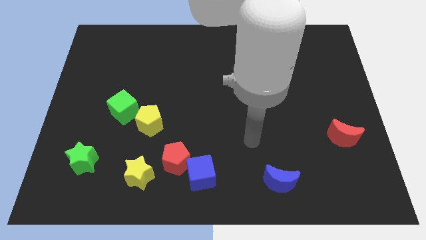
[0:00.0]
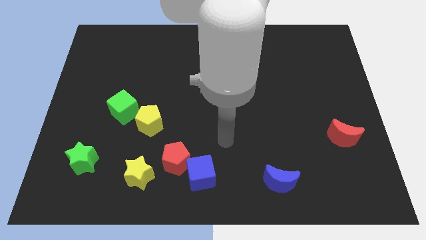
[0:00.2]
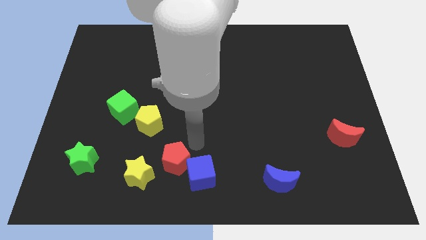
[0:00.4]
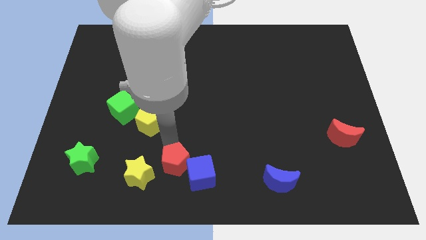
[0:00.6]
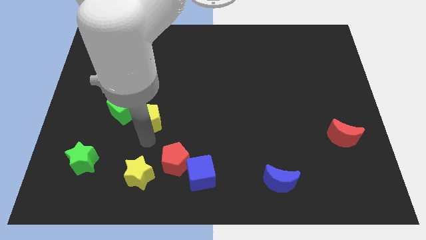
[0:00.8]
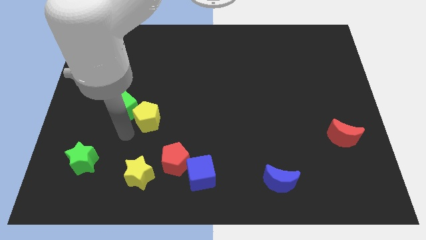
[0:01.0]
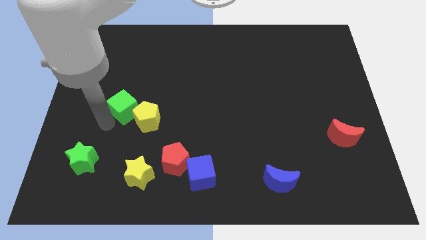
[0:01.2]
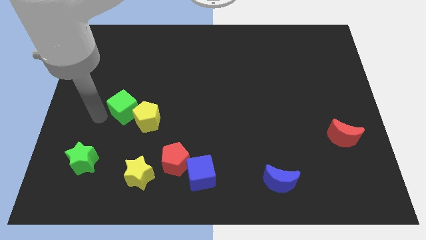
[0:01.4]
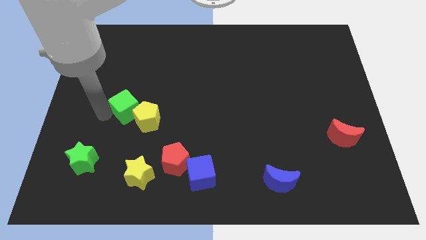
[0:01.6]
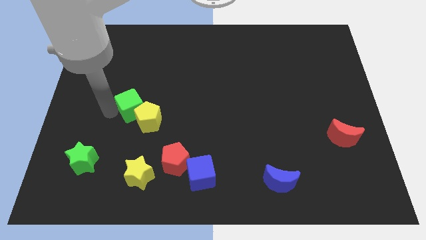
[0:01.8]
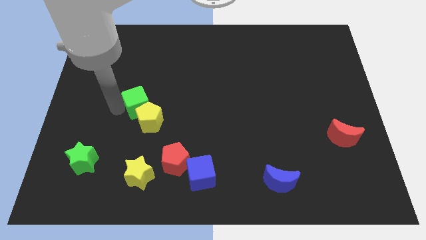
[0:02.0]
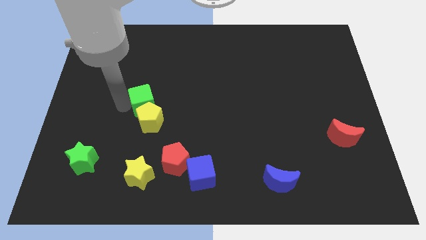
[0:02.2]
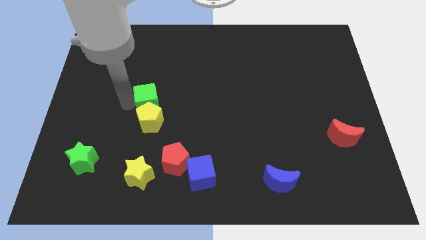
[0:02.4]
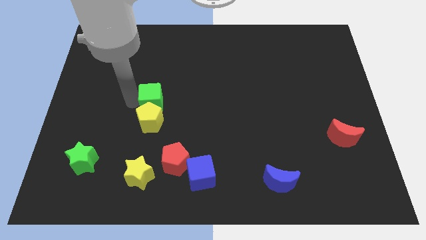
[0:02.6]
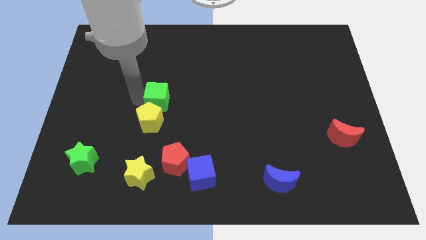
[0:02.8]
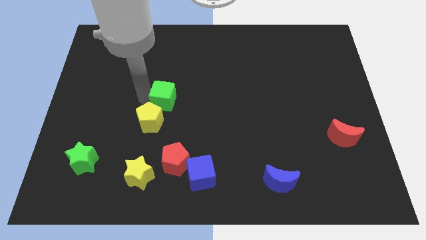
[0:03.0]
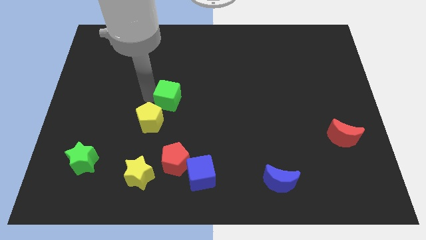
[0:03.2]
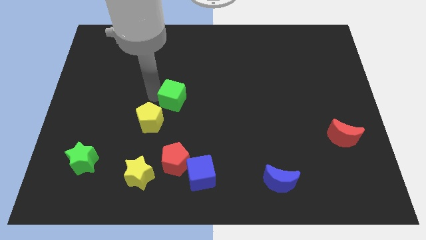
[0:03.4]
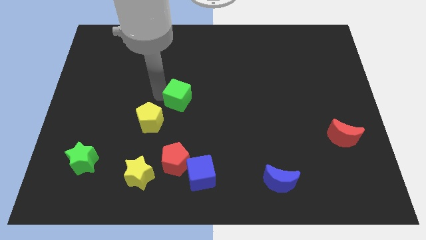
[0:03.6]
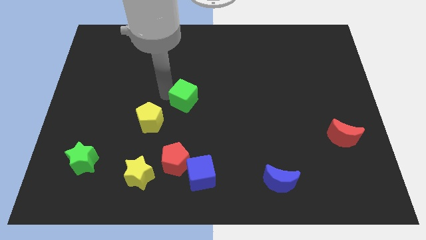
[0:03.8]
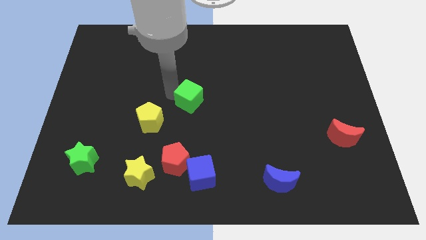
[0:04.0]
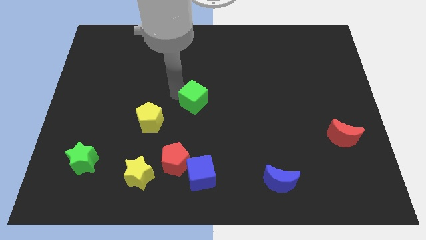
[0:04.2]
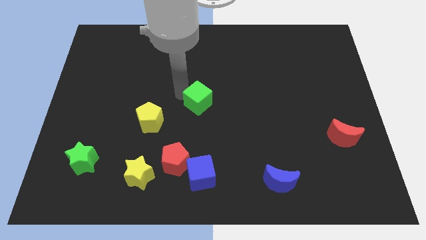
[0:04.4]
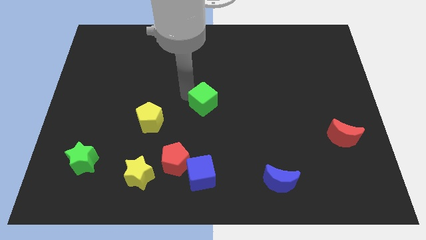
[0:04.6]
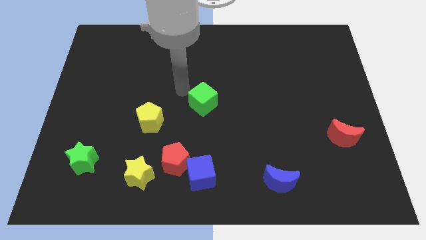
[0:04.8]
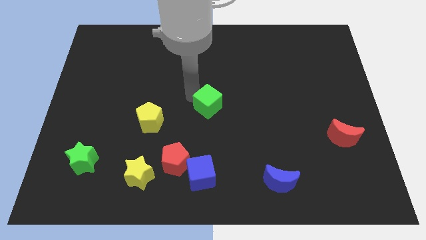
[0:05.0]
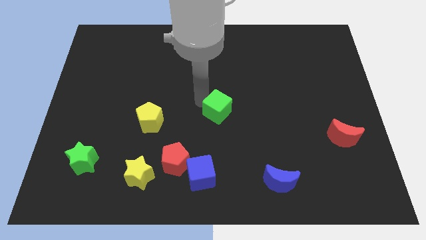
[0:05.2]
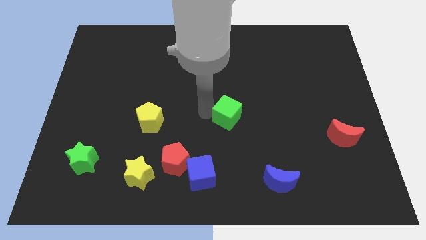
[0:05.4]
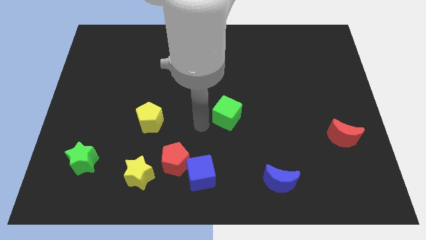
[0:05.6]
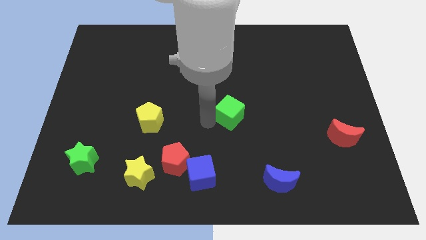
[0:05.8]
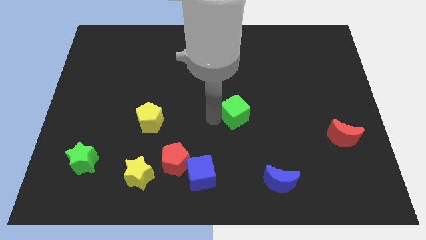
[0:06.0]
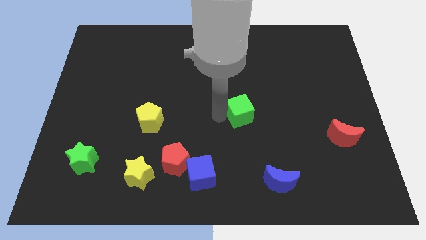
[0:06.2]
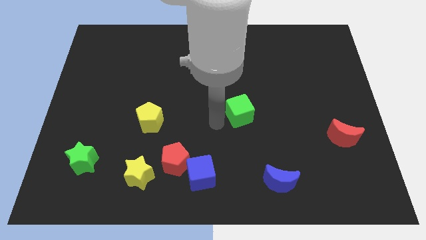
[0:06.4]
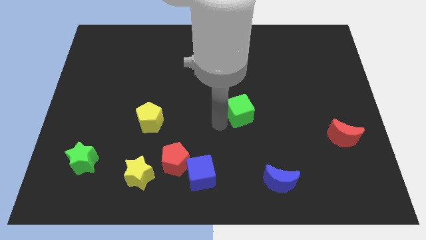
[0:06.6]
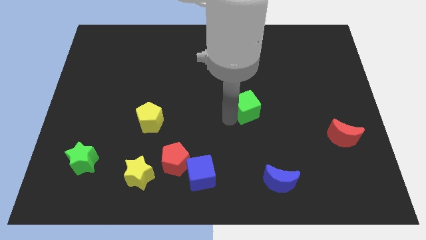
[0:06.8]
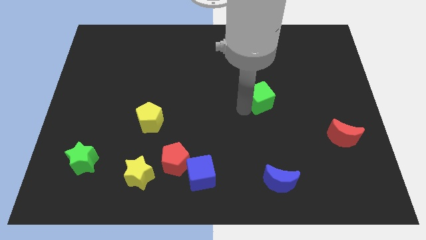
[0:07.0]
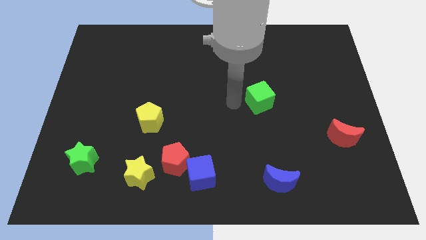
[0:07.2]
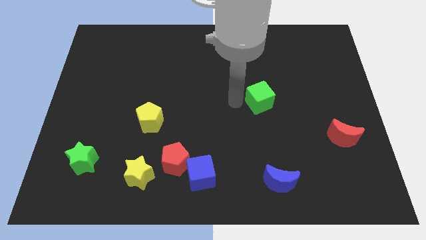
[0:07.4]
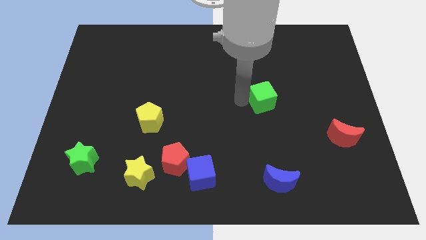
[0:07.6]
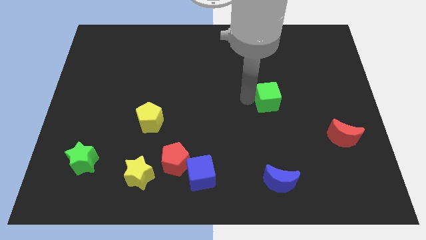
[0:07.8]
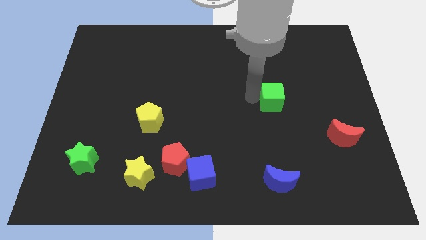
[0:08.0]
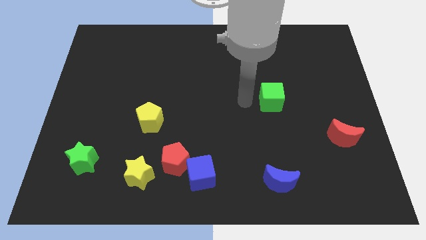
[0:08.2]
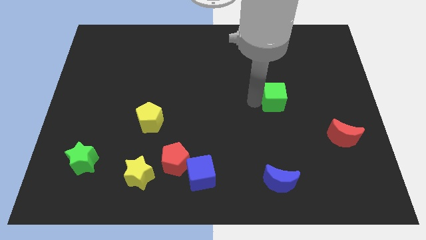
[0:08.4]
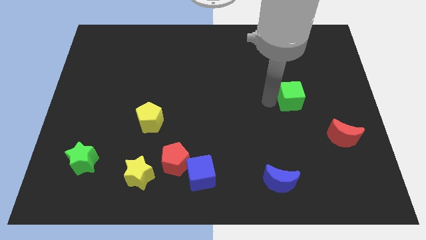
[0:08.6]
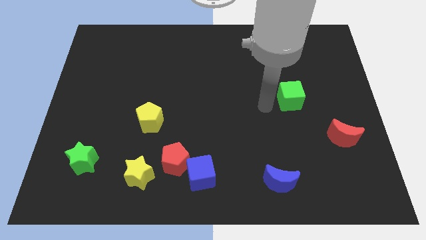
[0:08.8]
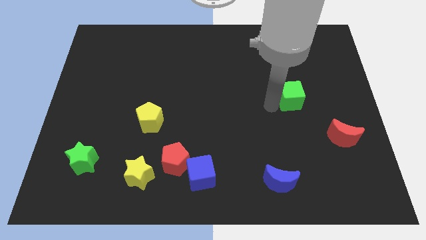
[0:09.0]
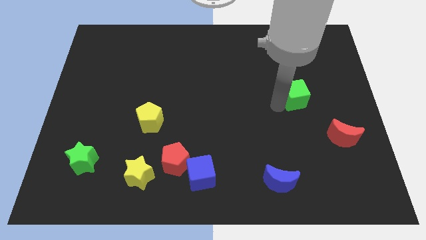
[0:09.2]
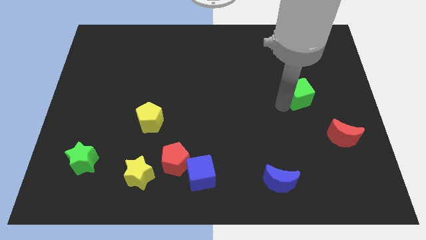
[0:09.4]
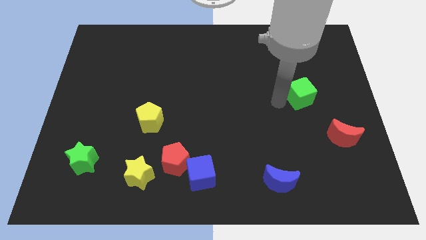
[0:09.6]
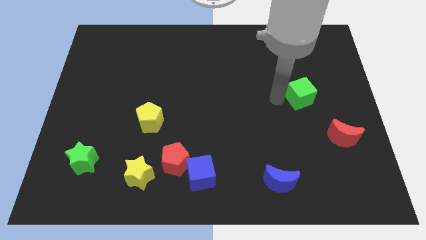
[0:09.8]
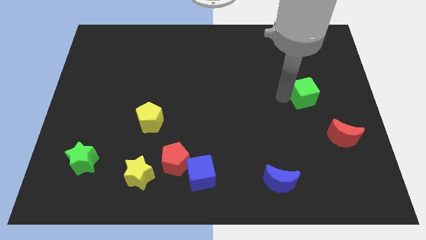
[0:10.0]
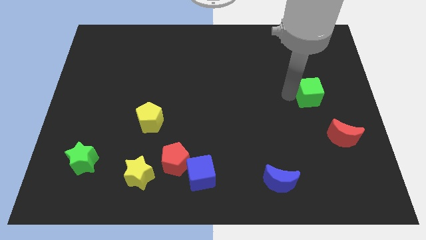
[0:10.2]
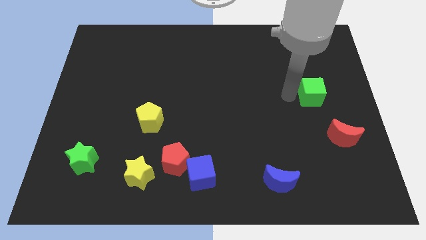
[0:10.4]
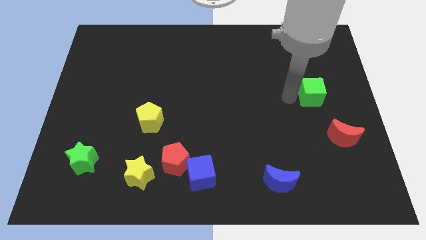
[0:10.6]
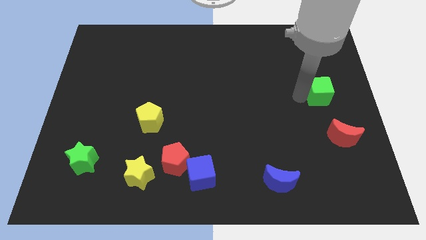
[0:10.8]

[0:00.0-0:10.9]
put the green cube to the center right

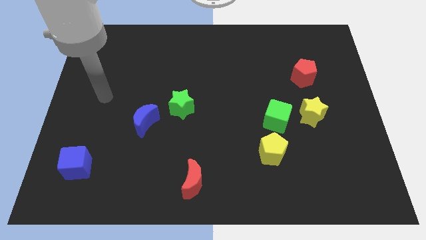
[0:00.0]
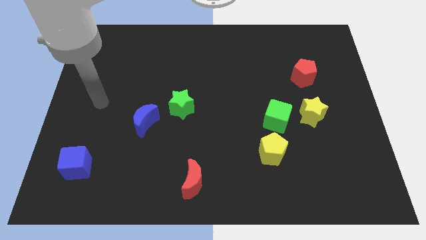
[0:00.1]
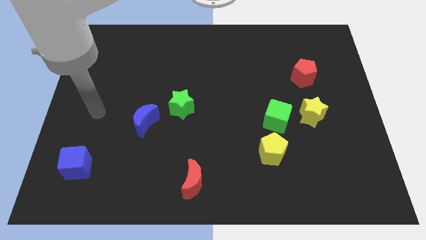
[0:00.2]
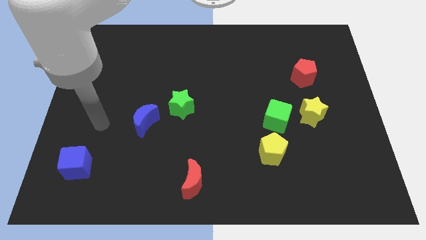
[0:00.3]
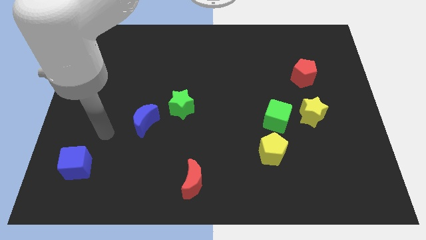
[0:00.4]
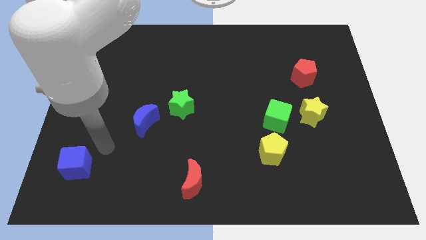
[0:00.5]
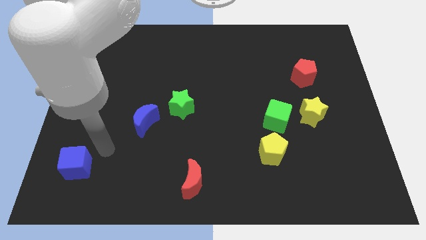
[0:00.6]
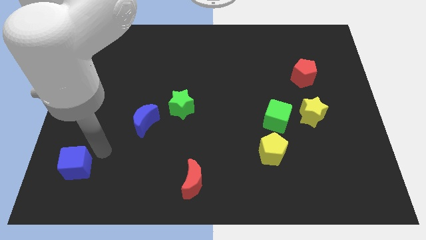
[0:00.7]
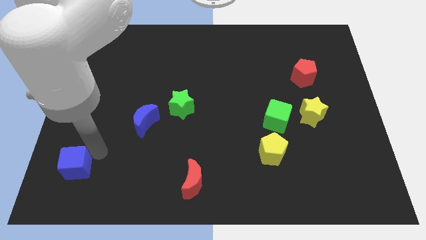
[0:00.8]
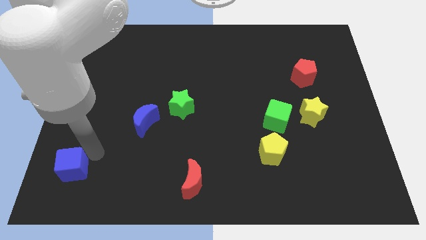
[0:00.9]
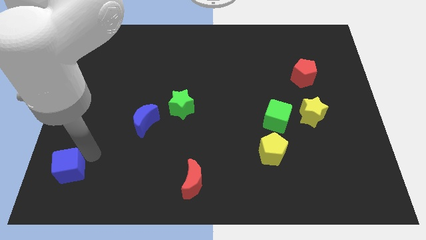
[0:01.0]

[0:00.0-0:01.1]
put the blue cube to the bottom left corner
